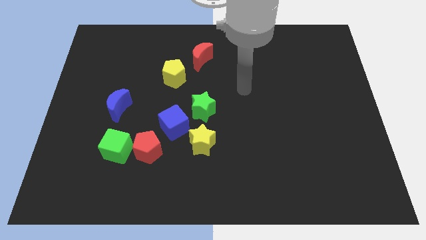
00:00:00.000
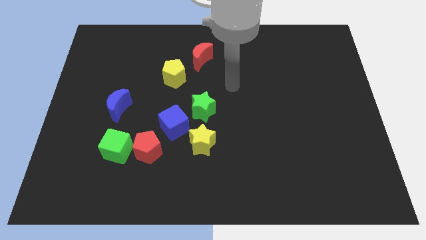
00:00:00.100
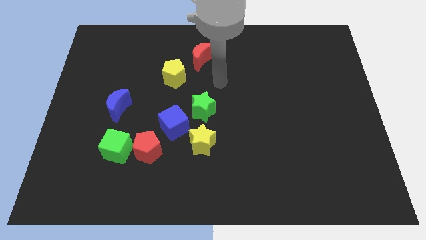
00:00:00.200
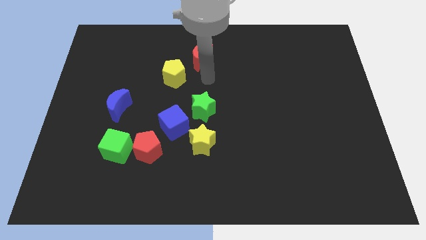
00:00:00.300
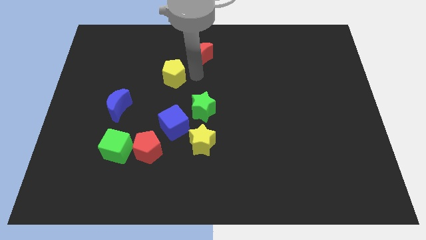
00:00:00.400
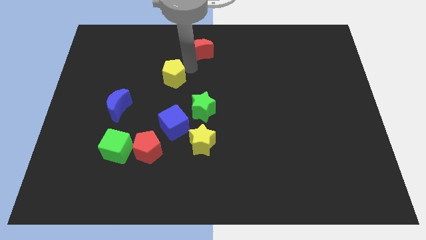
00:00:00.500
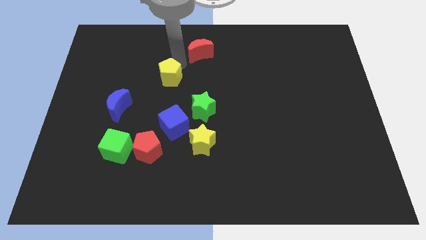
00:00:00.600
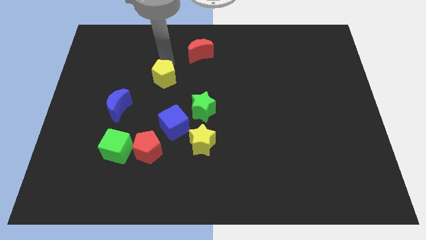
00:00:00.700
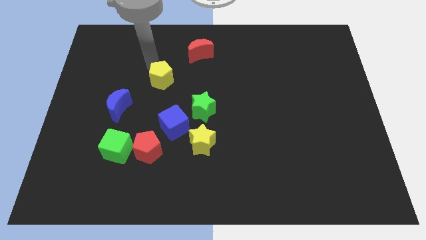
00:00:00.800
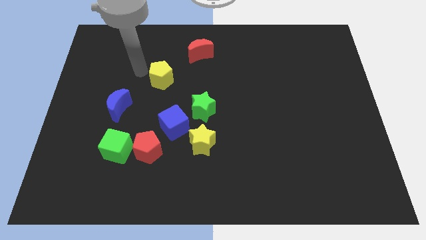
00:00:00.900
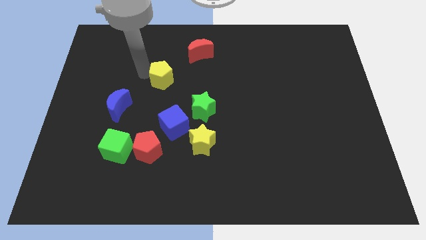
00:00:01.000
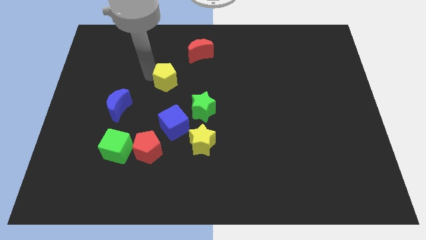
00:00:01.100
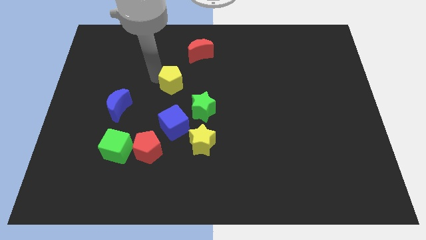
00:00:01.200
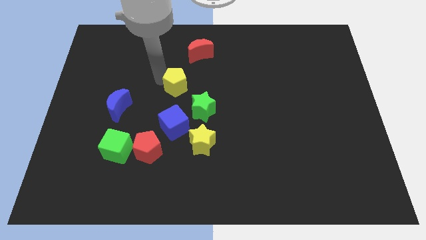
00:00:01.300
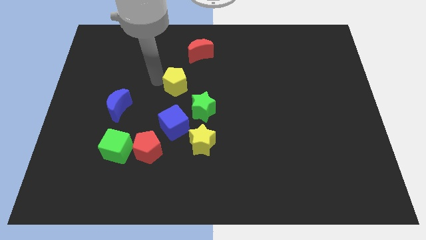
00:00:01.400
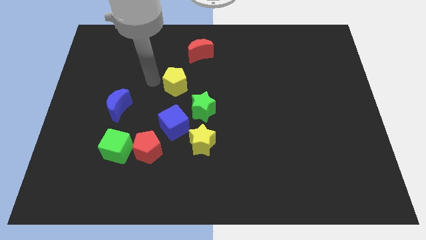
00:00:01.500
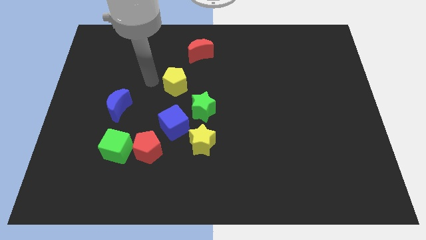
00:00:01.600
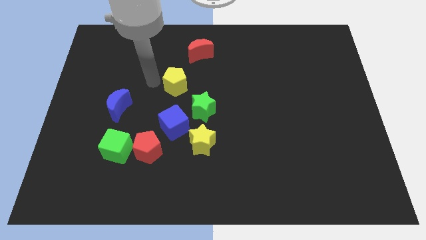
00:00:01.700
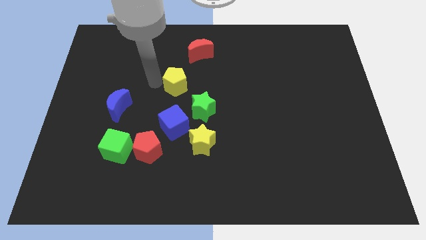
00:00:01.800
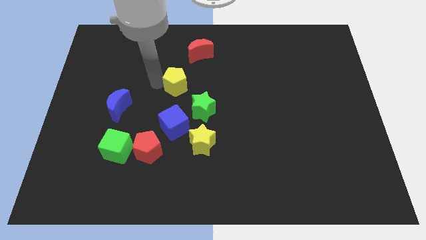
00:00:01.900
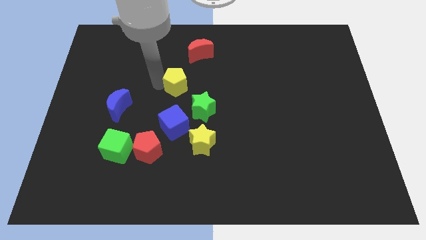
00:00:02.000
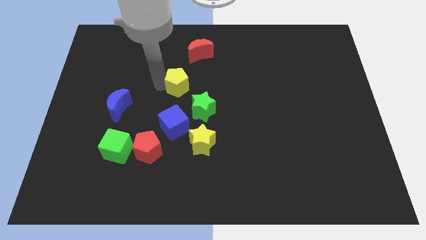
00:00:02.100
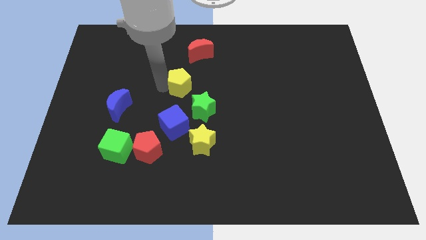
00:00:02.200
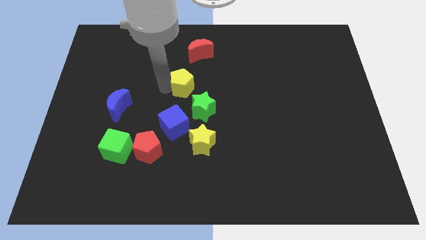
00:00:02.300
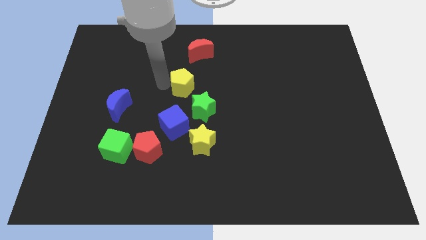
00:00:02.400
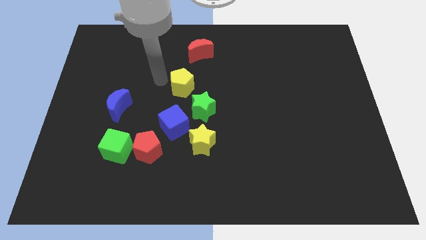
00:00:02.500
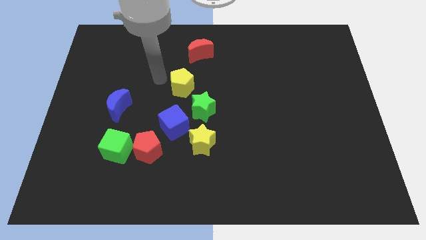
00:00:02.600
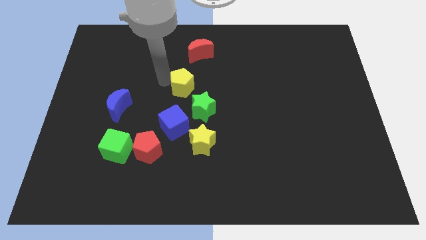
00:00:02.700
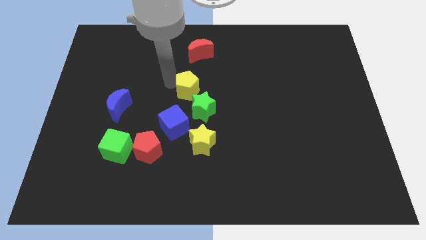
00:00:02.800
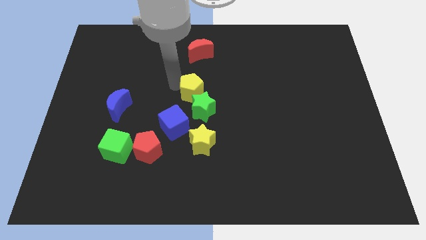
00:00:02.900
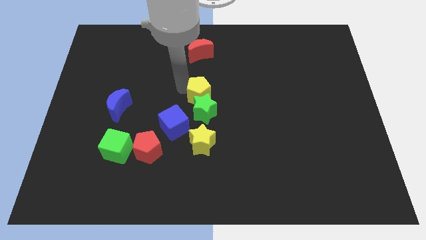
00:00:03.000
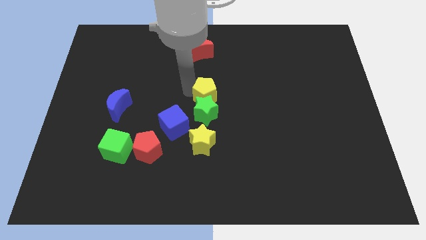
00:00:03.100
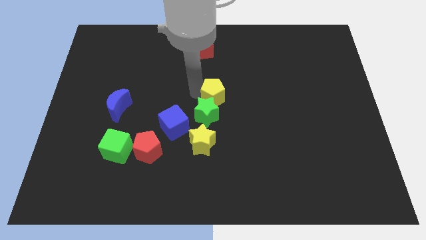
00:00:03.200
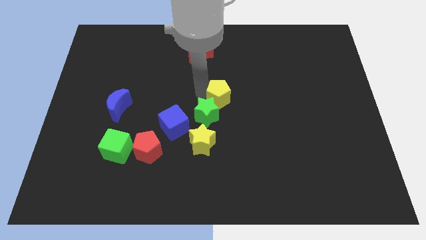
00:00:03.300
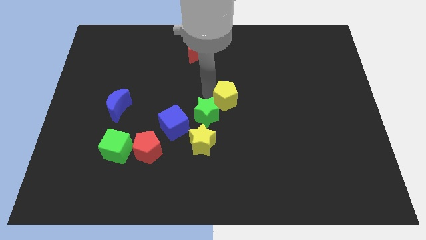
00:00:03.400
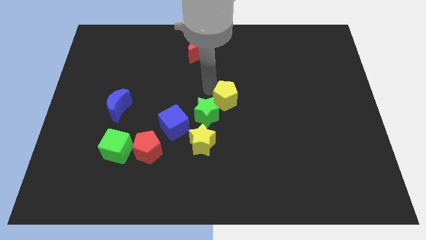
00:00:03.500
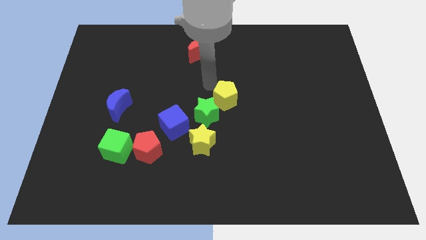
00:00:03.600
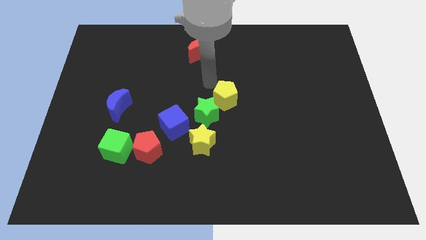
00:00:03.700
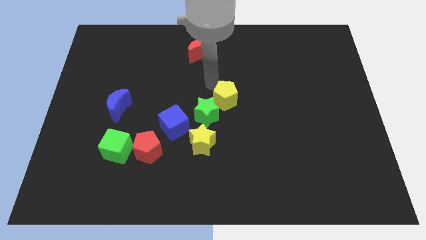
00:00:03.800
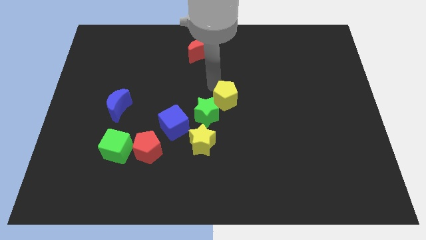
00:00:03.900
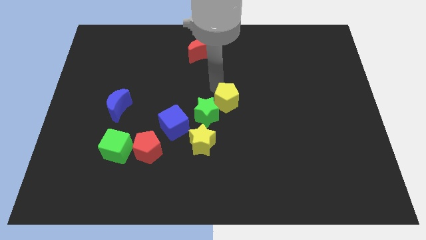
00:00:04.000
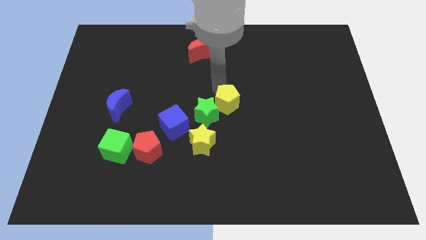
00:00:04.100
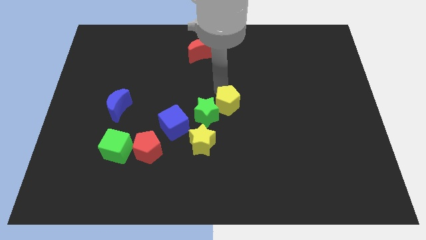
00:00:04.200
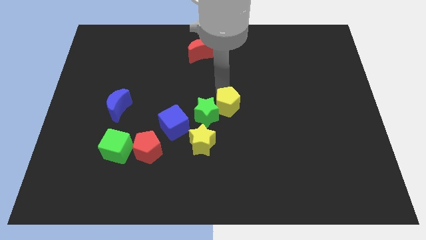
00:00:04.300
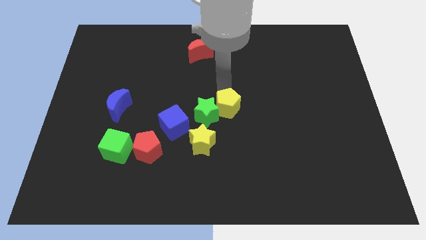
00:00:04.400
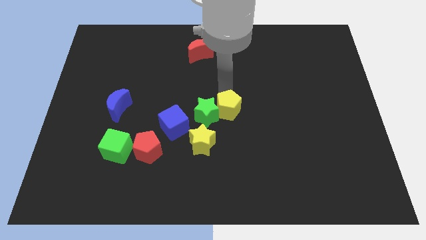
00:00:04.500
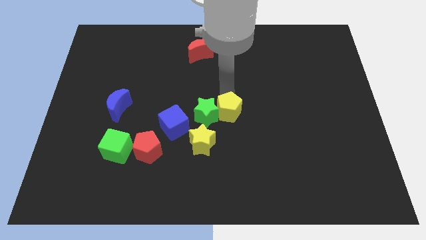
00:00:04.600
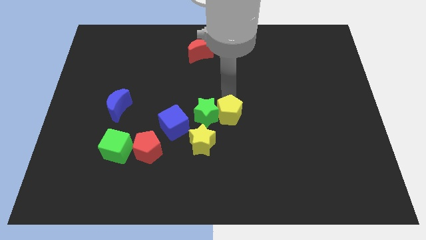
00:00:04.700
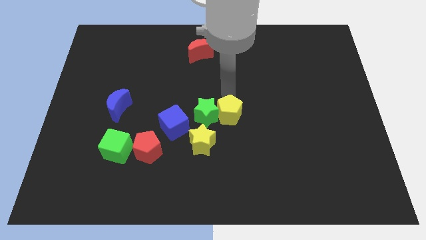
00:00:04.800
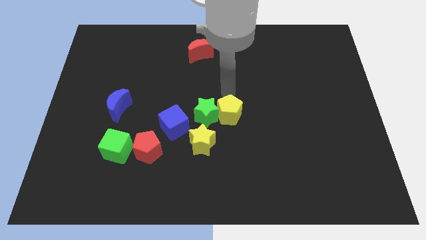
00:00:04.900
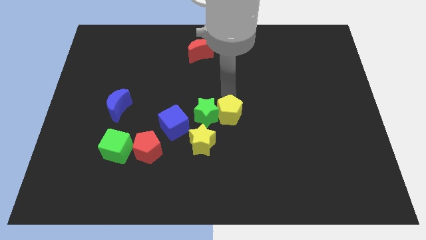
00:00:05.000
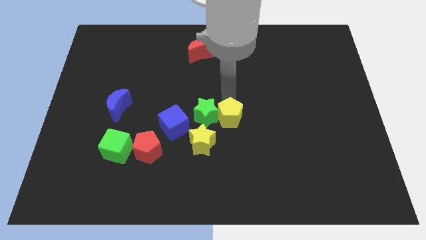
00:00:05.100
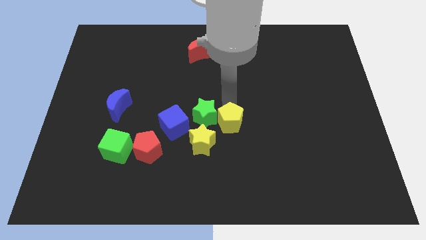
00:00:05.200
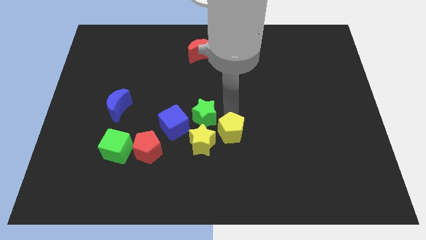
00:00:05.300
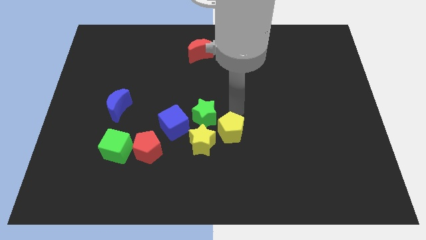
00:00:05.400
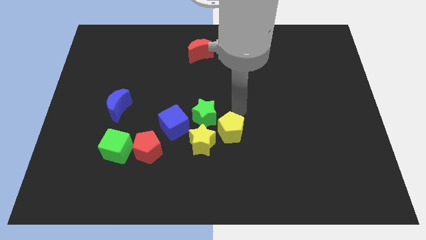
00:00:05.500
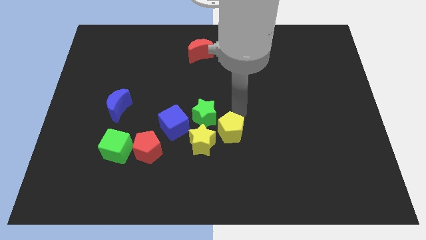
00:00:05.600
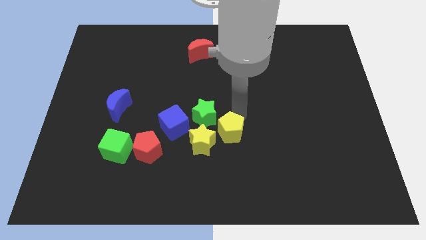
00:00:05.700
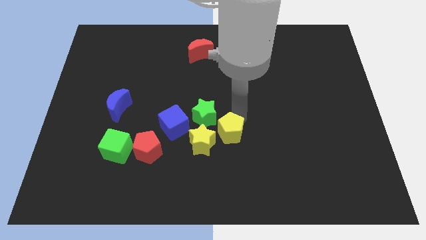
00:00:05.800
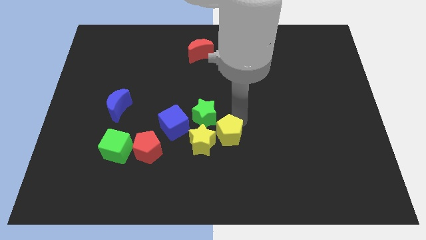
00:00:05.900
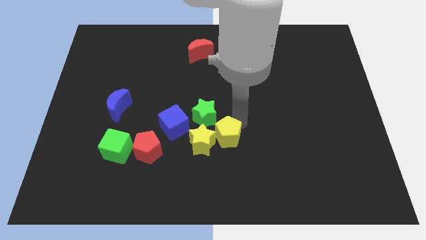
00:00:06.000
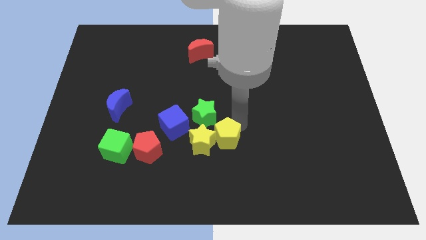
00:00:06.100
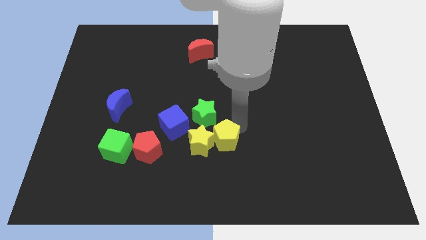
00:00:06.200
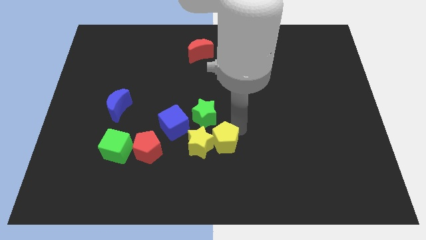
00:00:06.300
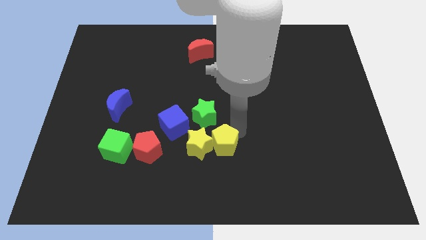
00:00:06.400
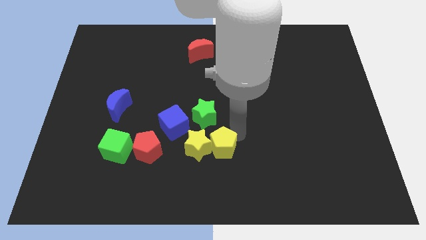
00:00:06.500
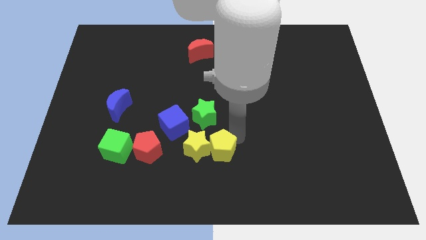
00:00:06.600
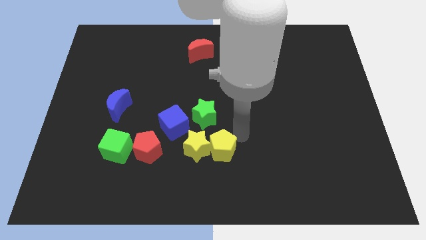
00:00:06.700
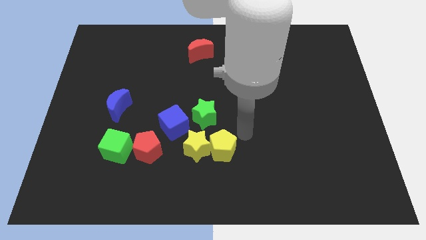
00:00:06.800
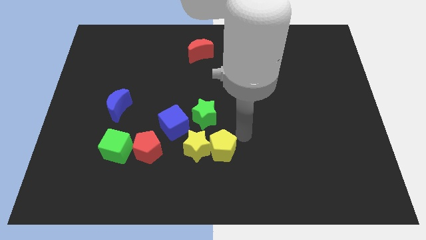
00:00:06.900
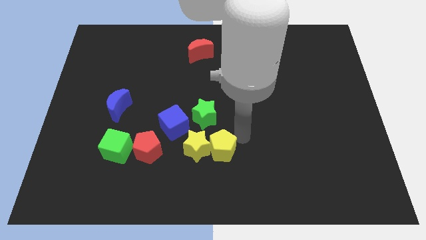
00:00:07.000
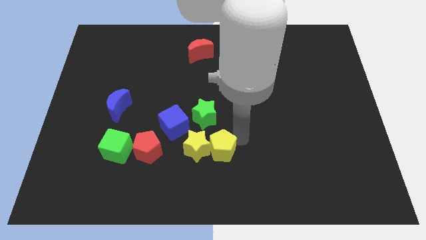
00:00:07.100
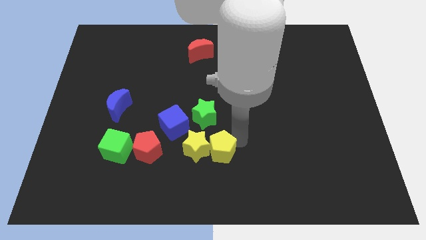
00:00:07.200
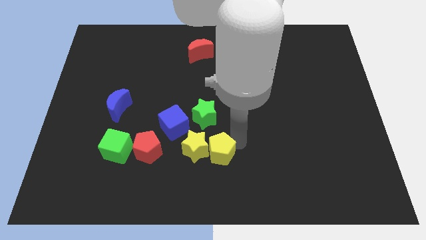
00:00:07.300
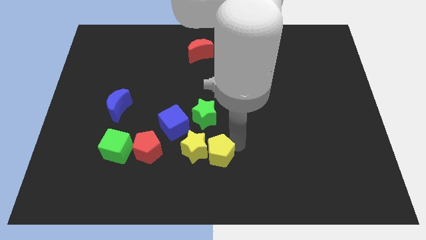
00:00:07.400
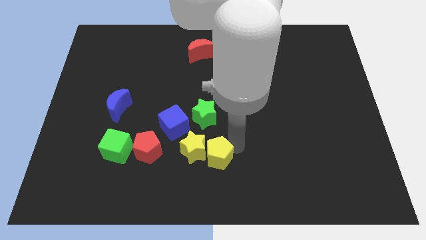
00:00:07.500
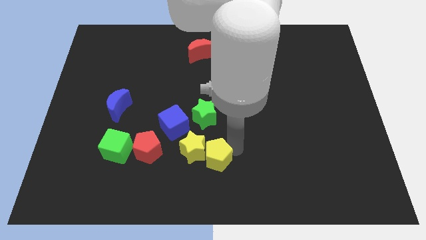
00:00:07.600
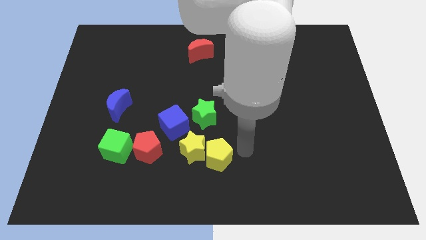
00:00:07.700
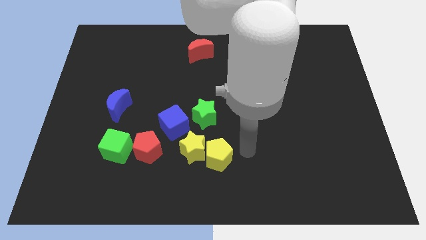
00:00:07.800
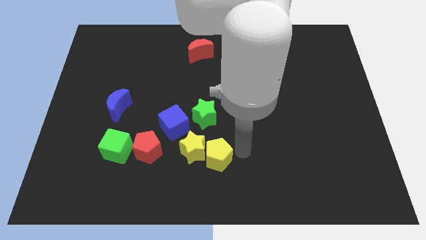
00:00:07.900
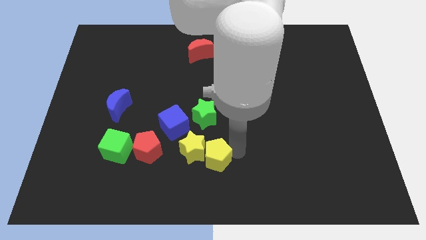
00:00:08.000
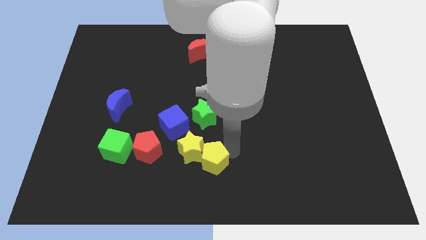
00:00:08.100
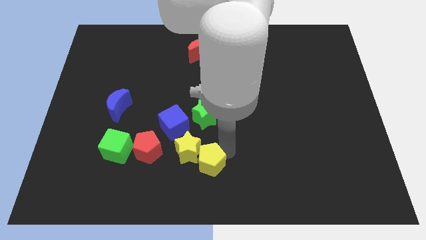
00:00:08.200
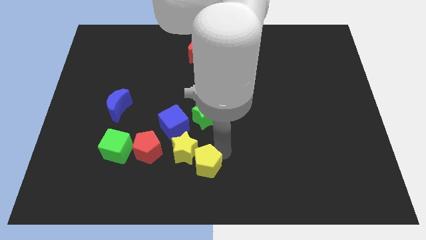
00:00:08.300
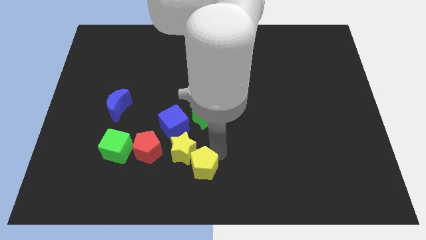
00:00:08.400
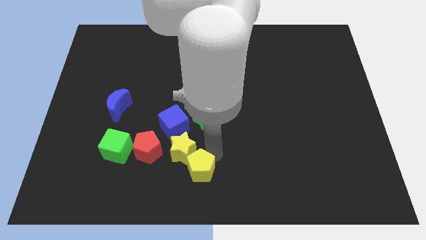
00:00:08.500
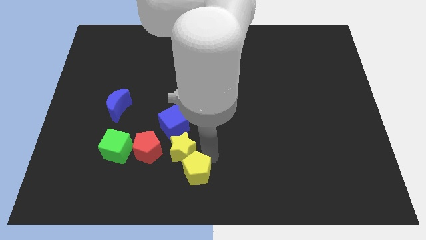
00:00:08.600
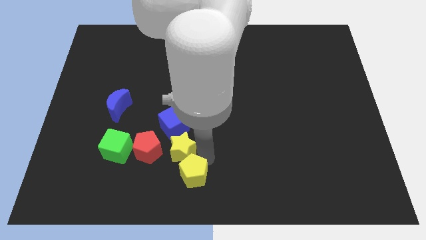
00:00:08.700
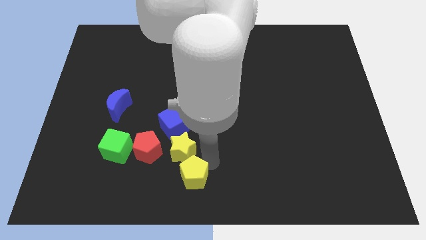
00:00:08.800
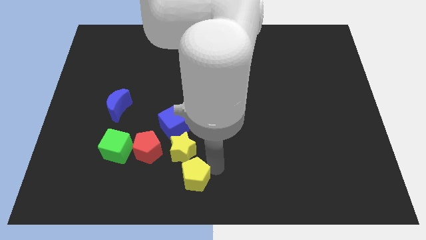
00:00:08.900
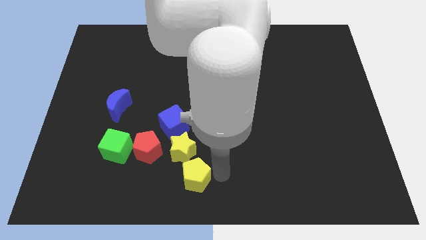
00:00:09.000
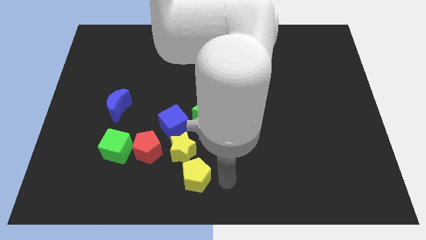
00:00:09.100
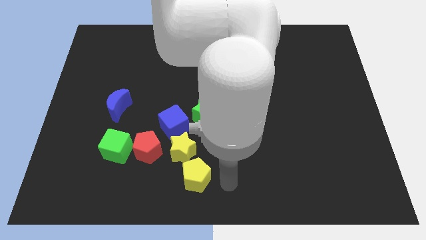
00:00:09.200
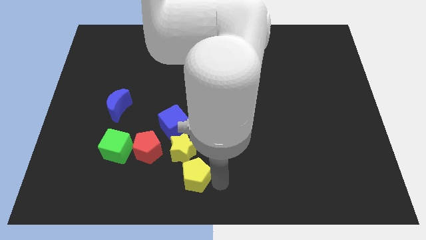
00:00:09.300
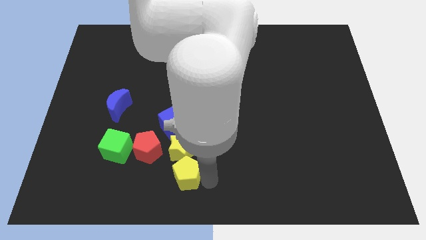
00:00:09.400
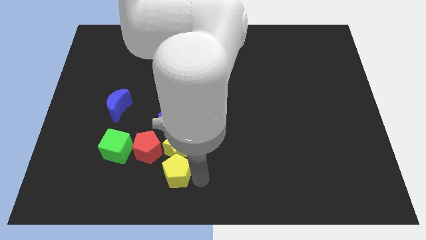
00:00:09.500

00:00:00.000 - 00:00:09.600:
push the yellow pentagon to the bottom left side of the yellow star
